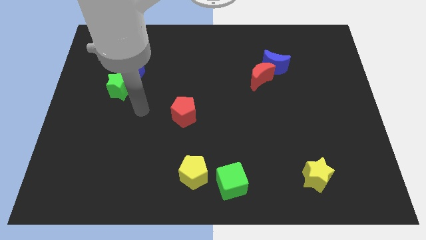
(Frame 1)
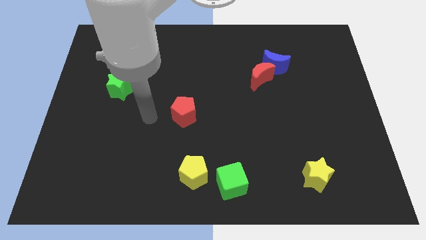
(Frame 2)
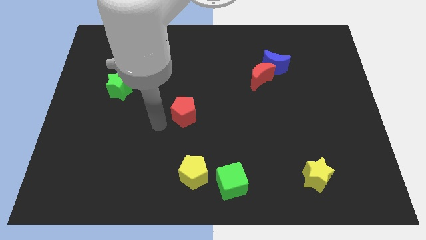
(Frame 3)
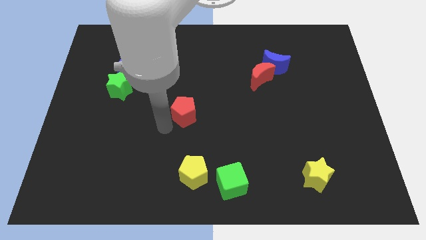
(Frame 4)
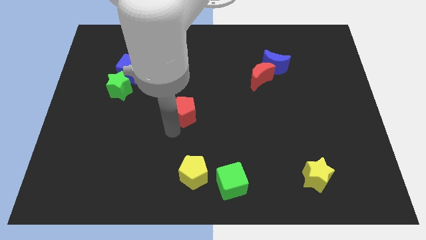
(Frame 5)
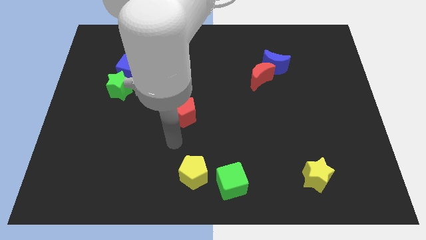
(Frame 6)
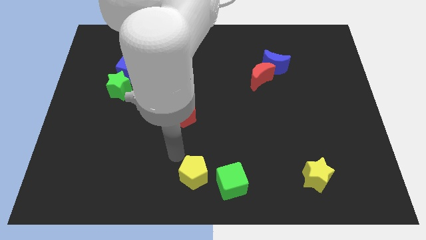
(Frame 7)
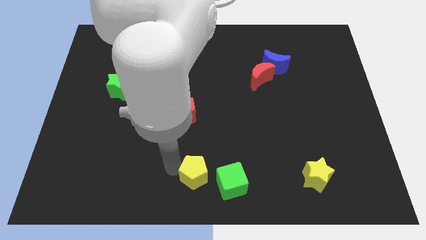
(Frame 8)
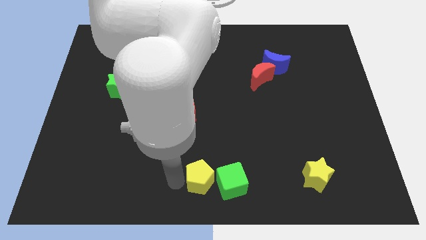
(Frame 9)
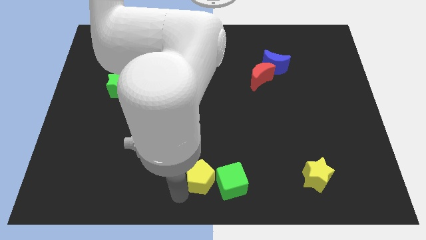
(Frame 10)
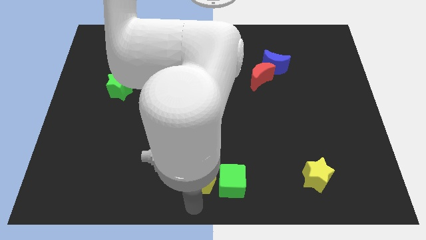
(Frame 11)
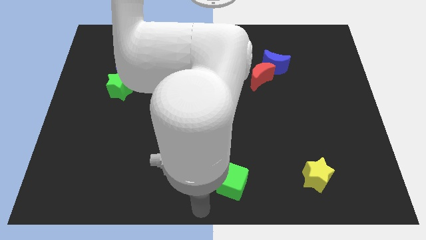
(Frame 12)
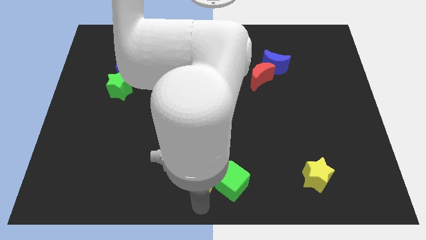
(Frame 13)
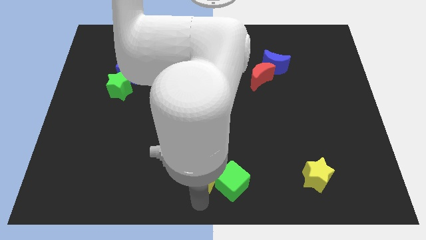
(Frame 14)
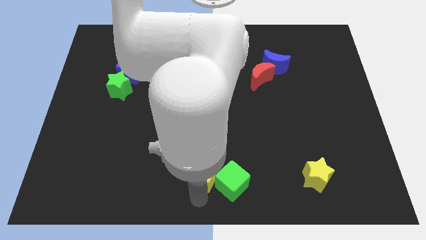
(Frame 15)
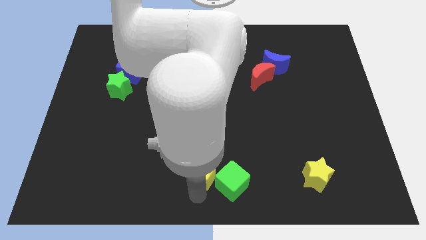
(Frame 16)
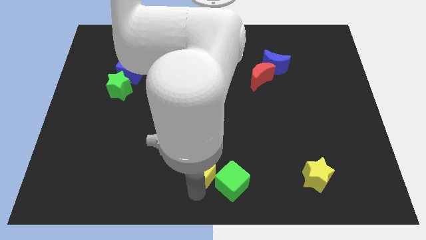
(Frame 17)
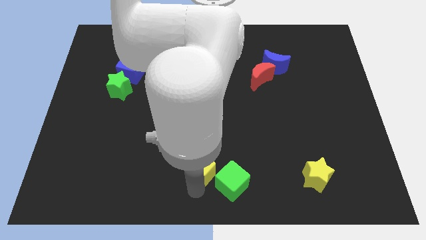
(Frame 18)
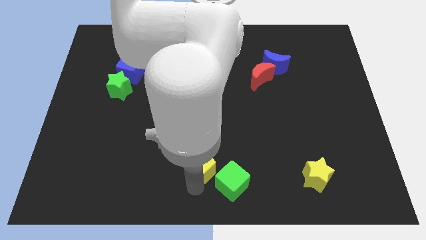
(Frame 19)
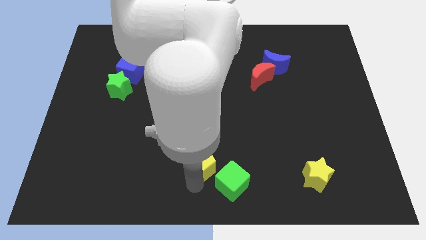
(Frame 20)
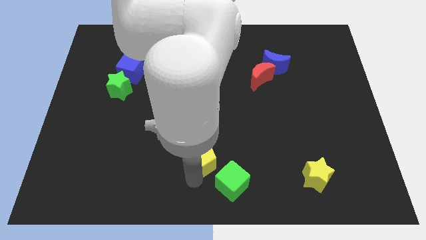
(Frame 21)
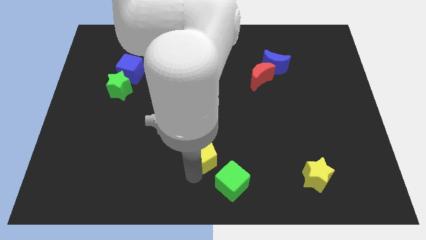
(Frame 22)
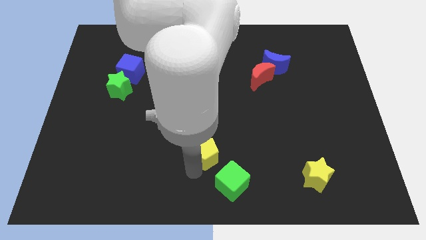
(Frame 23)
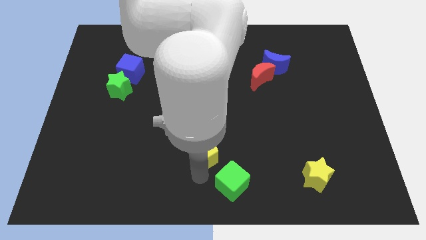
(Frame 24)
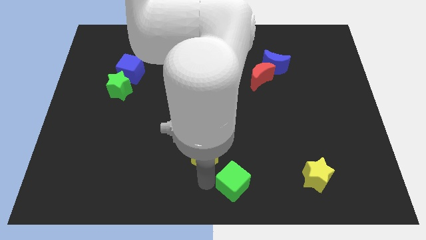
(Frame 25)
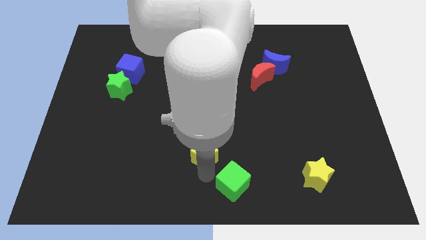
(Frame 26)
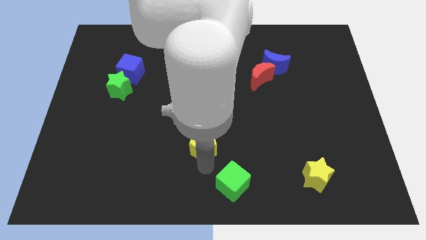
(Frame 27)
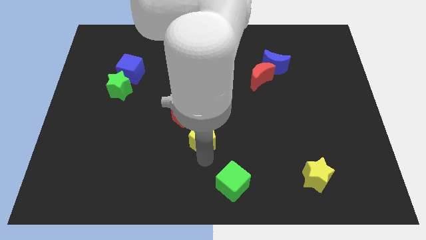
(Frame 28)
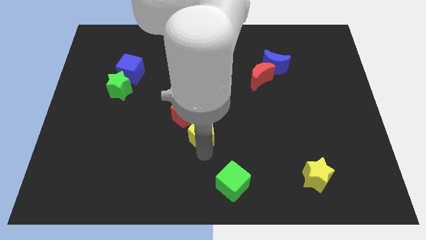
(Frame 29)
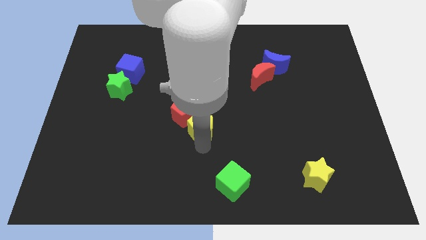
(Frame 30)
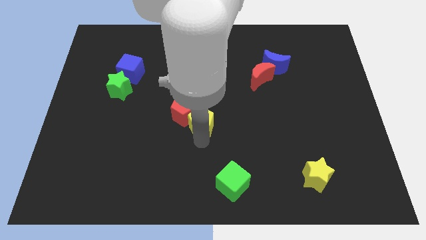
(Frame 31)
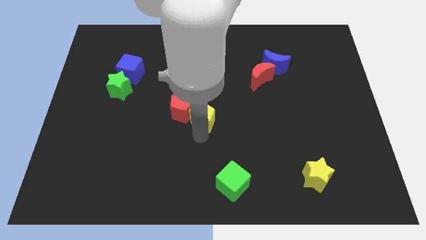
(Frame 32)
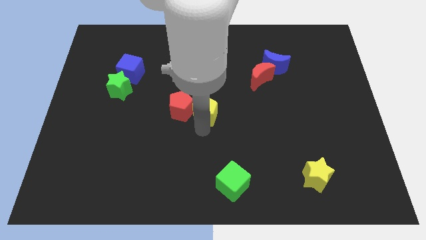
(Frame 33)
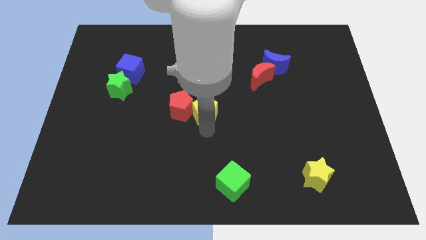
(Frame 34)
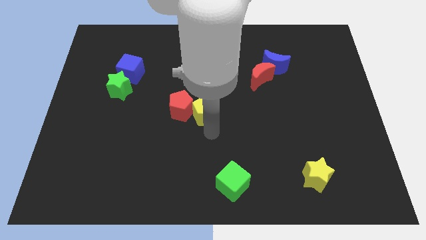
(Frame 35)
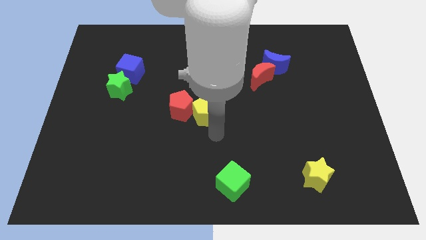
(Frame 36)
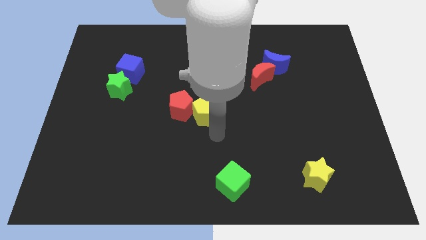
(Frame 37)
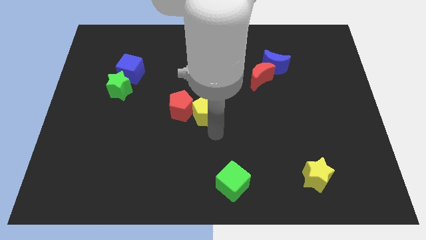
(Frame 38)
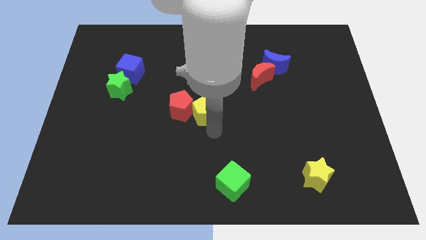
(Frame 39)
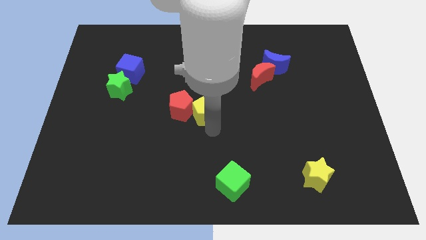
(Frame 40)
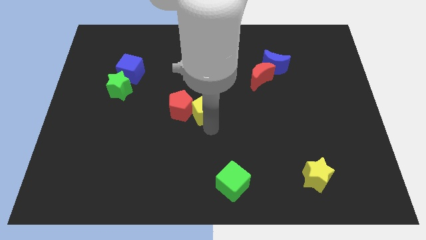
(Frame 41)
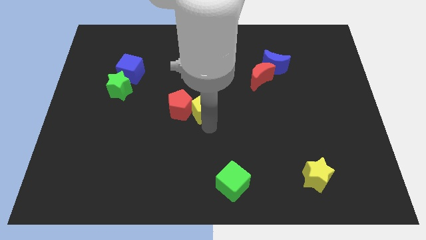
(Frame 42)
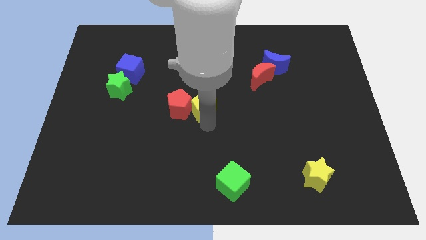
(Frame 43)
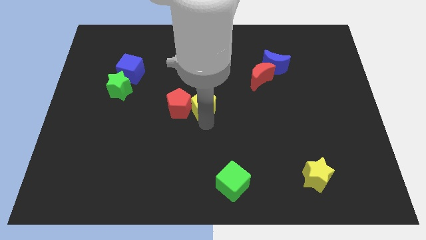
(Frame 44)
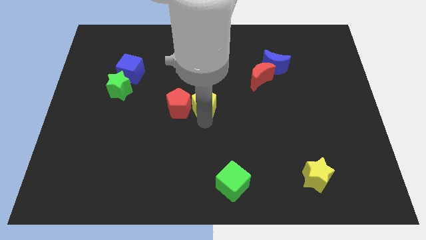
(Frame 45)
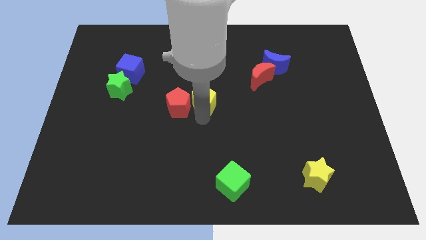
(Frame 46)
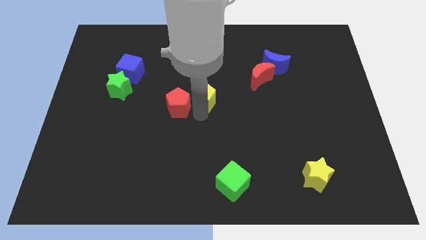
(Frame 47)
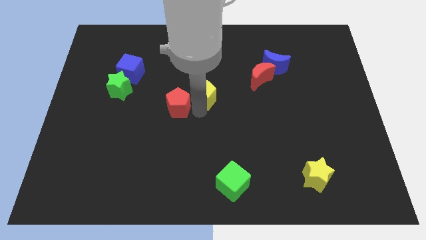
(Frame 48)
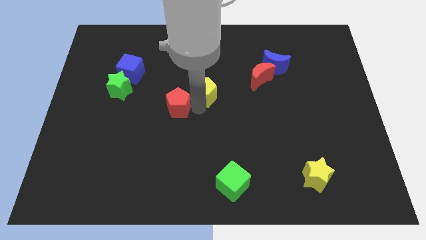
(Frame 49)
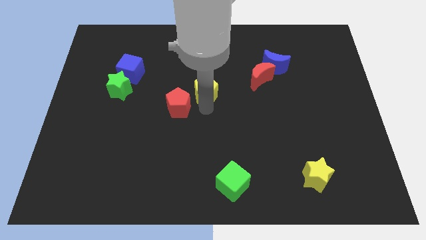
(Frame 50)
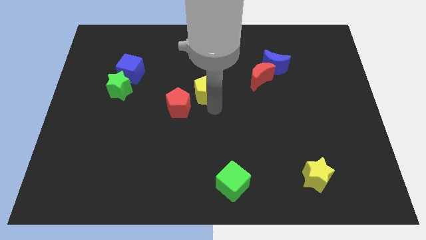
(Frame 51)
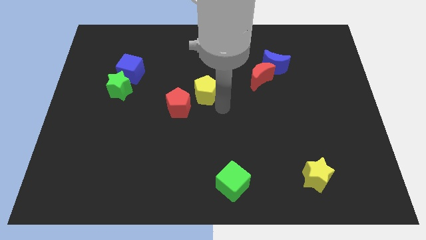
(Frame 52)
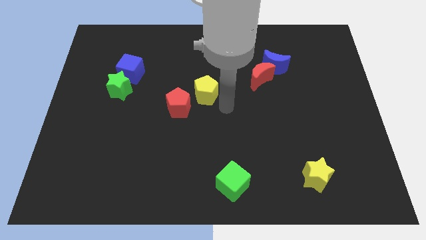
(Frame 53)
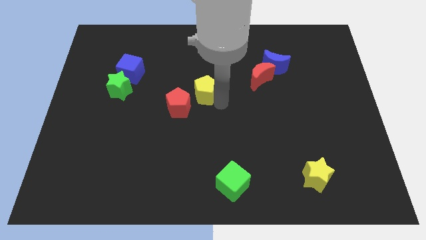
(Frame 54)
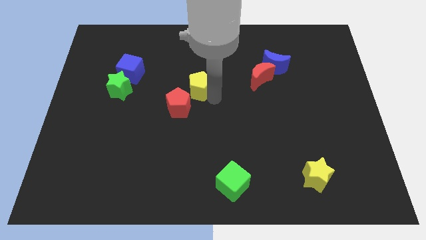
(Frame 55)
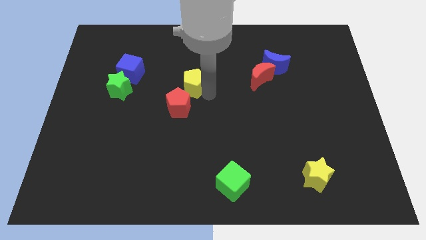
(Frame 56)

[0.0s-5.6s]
push the yellow pentagon to the top side of the red pentagon

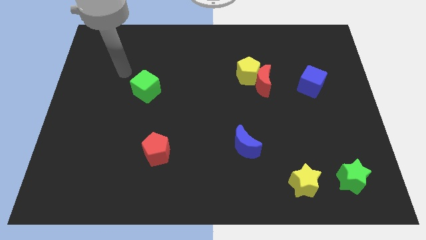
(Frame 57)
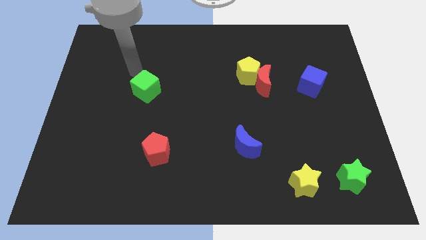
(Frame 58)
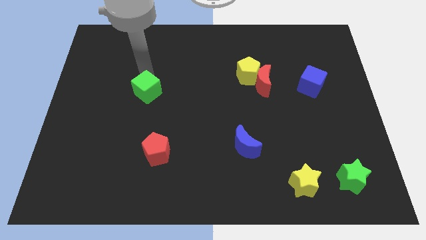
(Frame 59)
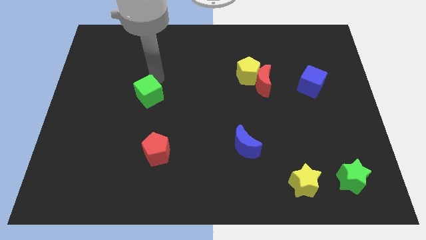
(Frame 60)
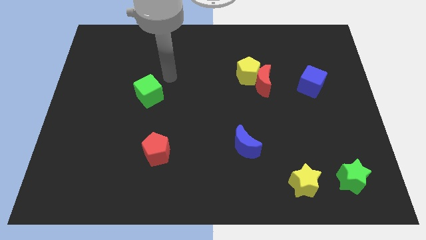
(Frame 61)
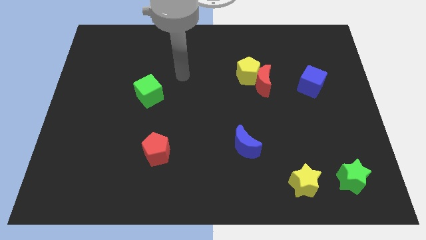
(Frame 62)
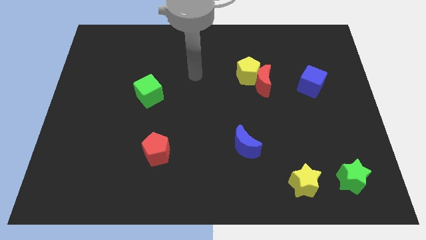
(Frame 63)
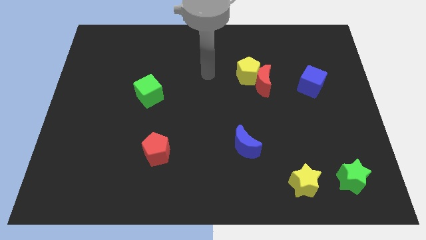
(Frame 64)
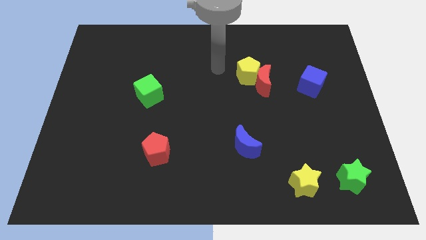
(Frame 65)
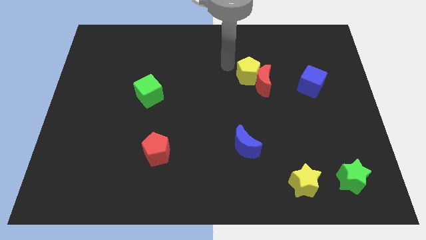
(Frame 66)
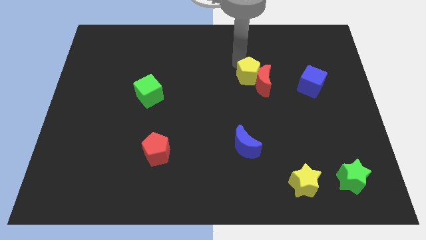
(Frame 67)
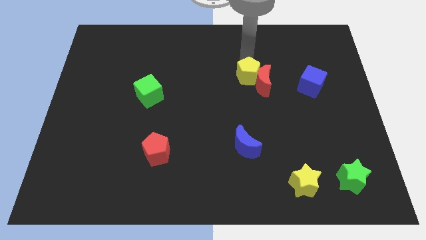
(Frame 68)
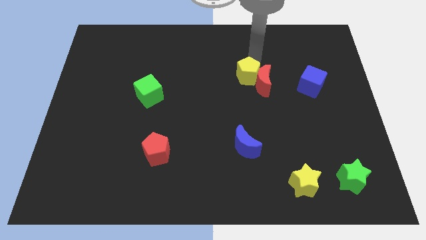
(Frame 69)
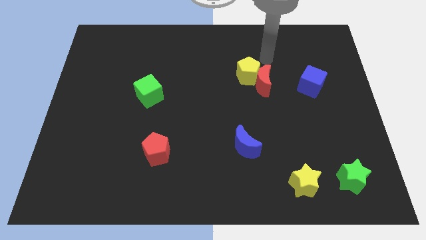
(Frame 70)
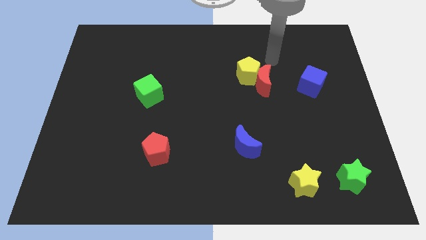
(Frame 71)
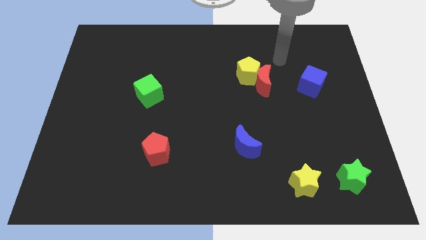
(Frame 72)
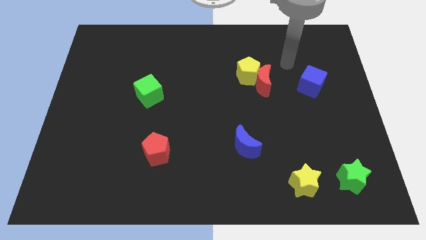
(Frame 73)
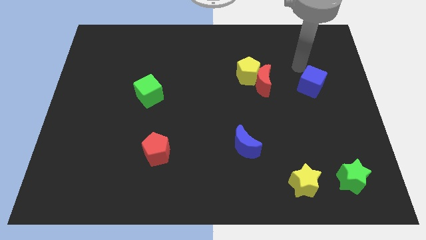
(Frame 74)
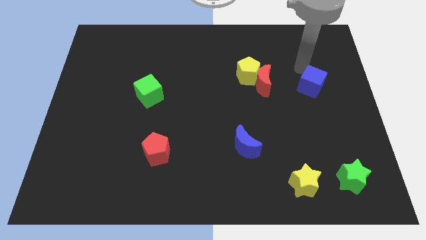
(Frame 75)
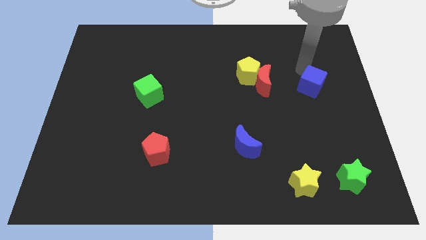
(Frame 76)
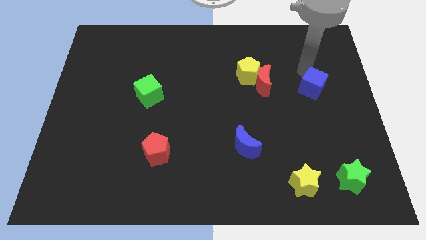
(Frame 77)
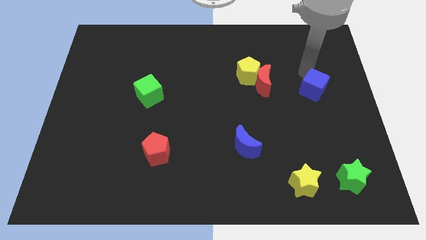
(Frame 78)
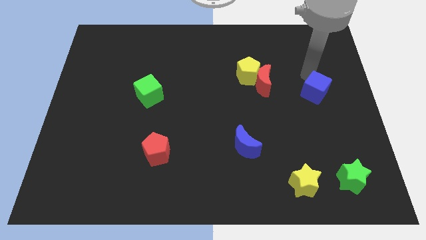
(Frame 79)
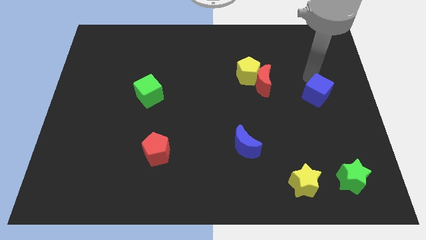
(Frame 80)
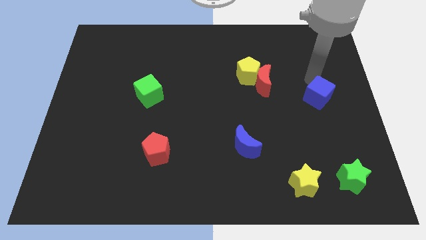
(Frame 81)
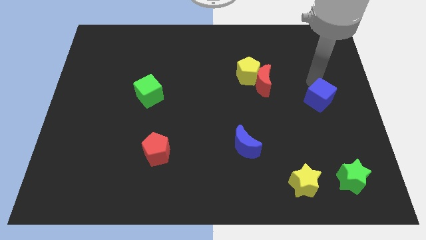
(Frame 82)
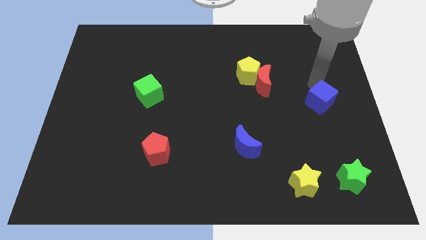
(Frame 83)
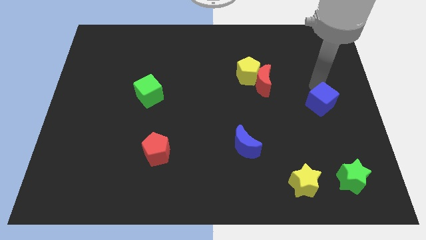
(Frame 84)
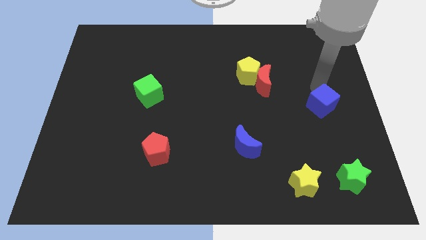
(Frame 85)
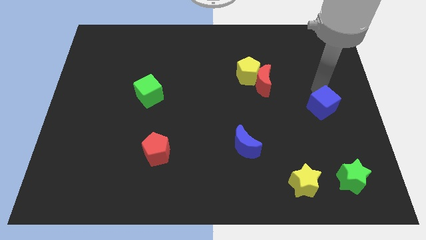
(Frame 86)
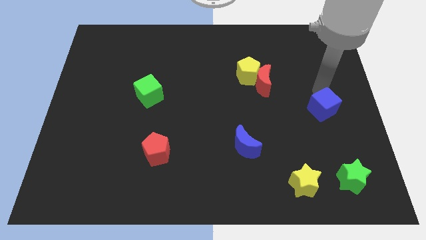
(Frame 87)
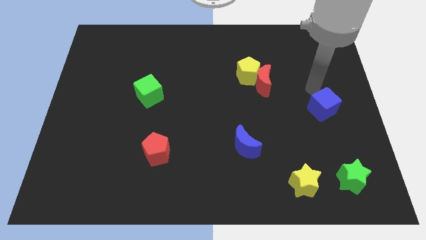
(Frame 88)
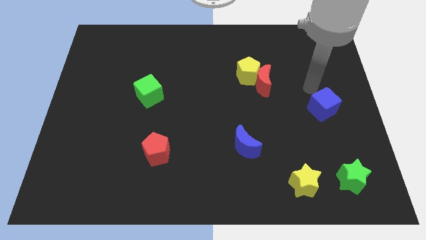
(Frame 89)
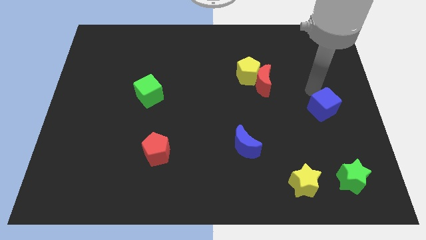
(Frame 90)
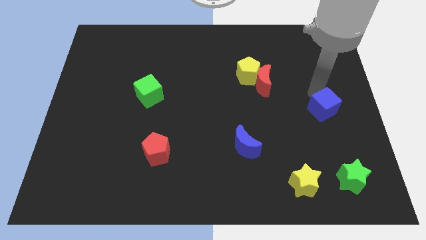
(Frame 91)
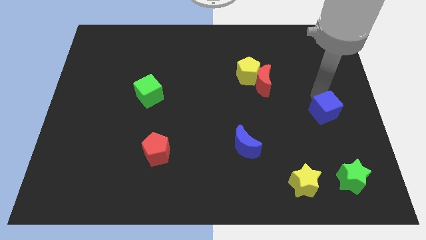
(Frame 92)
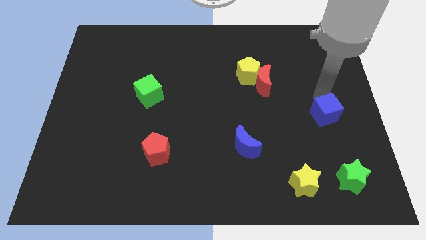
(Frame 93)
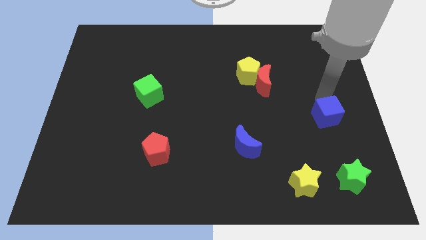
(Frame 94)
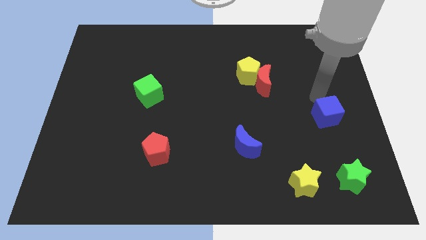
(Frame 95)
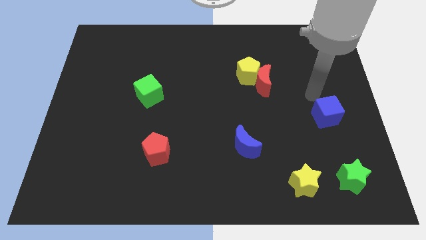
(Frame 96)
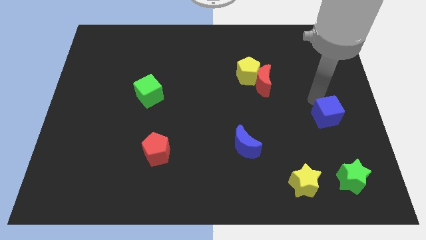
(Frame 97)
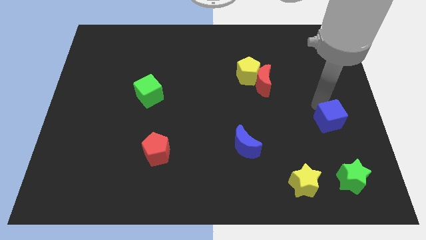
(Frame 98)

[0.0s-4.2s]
push the blue cube to the top side of the green star
